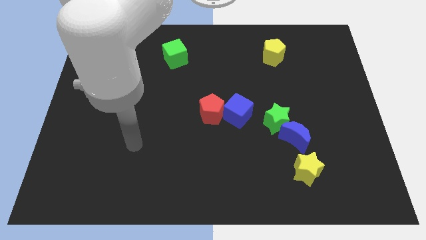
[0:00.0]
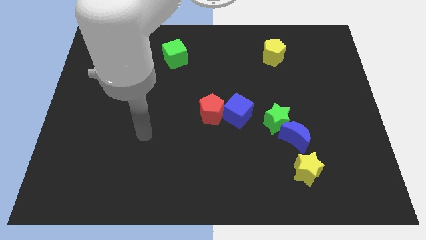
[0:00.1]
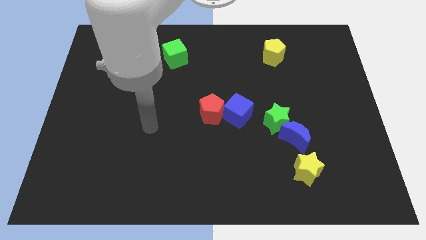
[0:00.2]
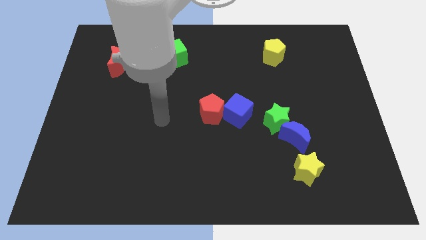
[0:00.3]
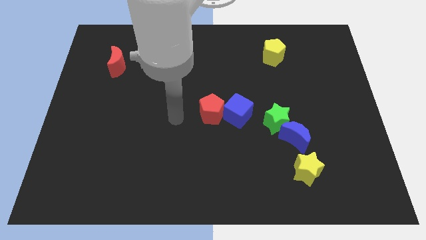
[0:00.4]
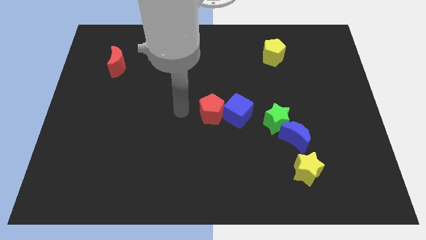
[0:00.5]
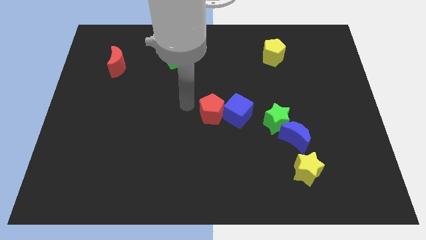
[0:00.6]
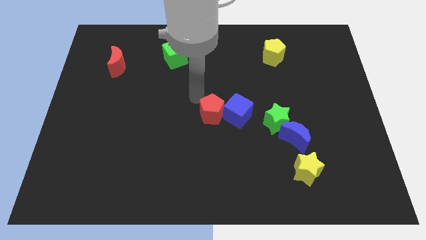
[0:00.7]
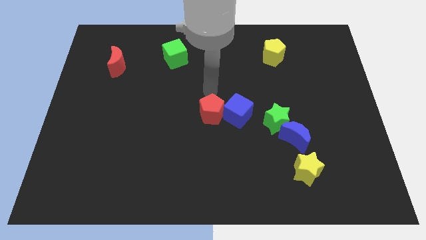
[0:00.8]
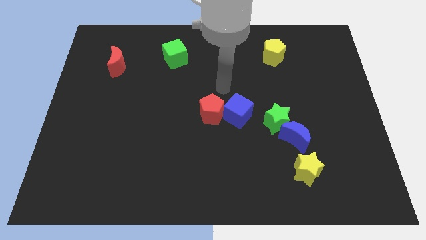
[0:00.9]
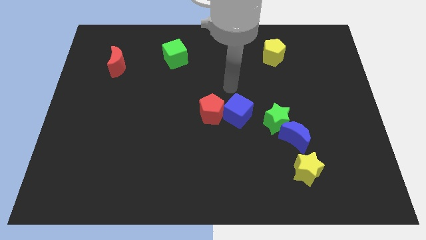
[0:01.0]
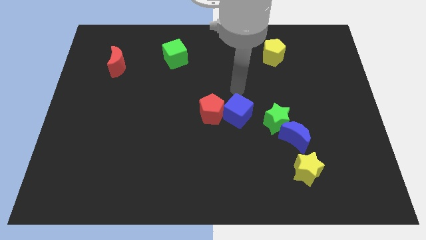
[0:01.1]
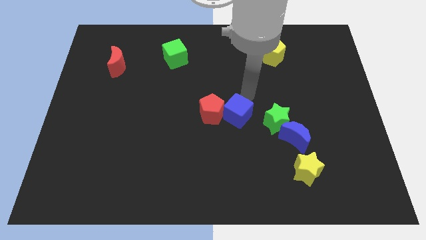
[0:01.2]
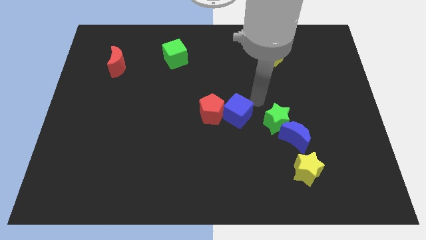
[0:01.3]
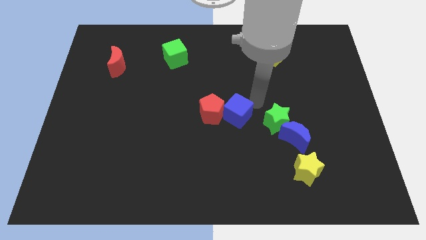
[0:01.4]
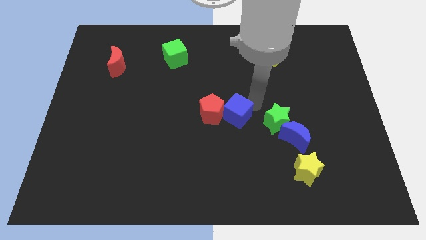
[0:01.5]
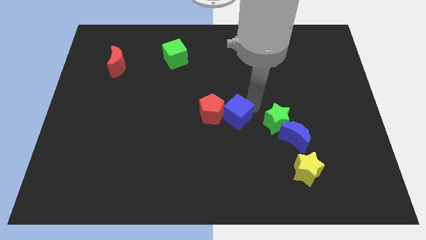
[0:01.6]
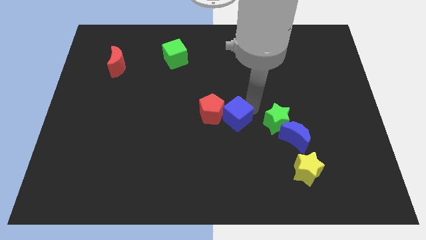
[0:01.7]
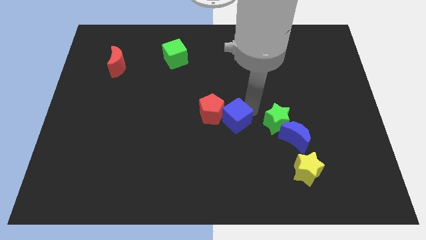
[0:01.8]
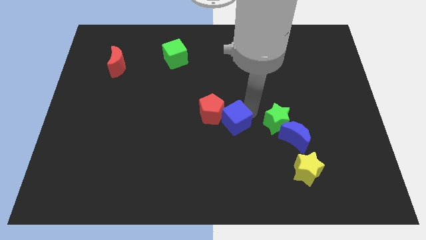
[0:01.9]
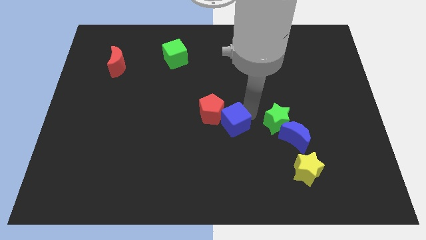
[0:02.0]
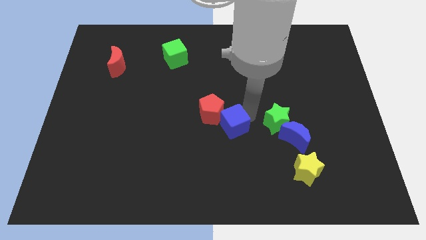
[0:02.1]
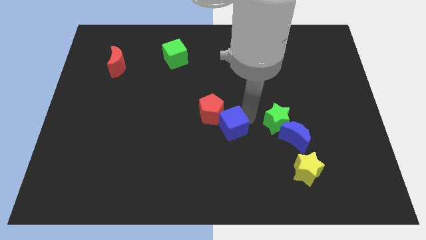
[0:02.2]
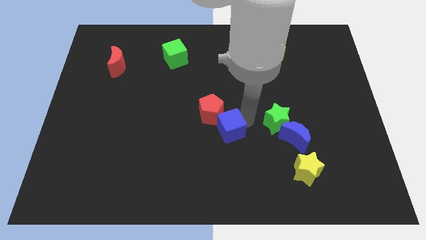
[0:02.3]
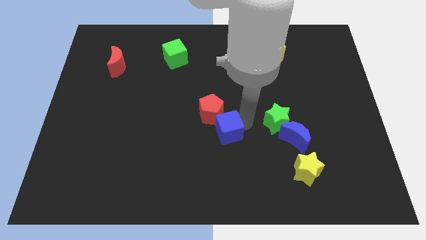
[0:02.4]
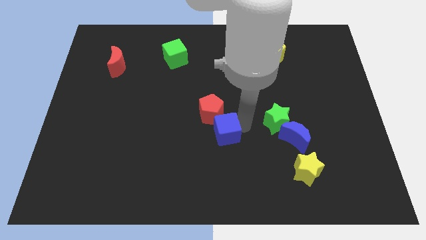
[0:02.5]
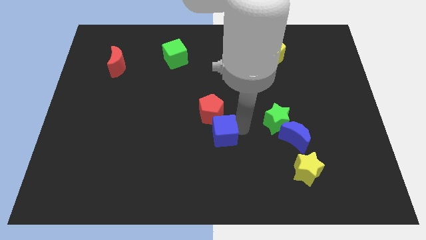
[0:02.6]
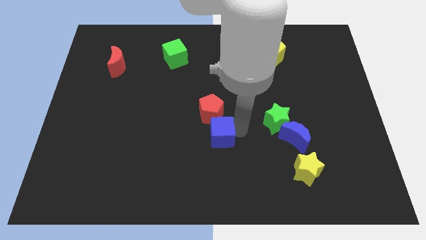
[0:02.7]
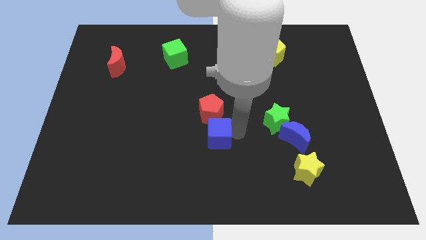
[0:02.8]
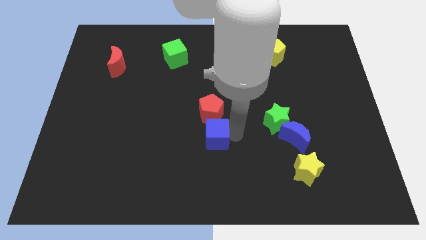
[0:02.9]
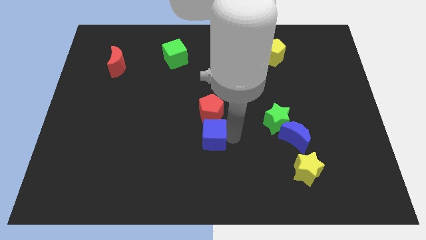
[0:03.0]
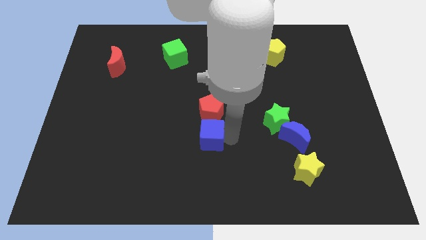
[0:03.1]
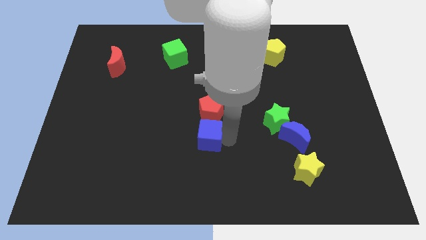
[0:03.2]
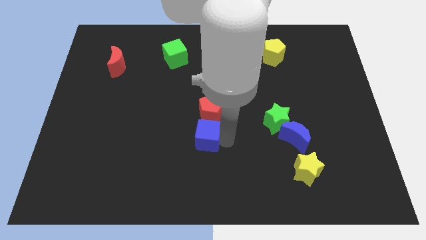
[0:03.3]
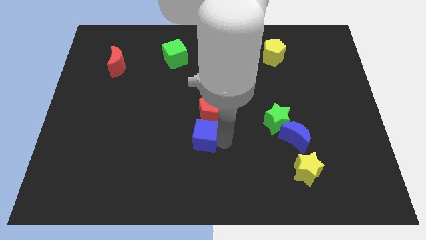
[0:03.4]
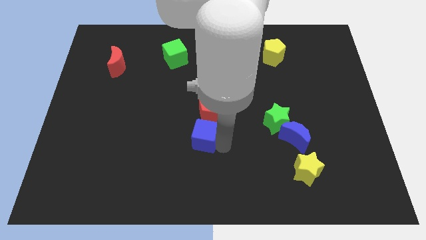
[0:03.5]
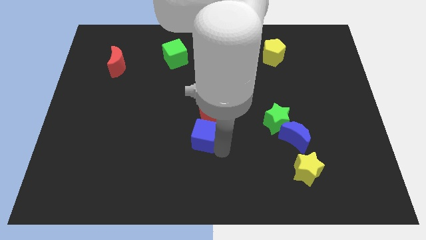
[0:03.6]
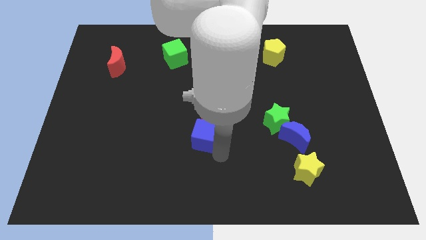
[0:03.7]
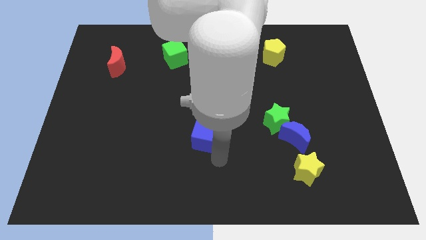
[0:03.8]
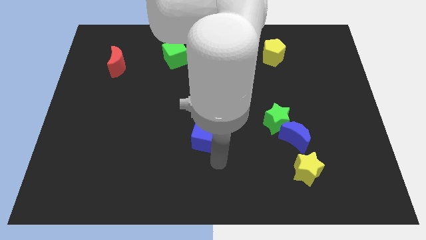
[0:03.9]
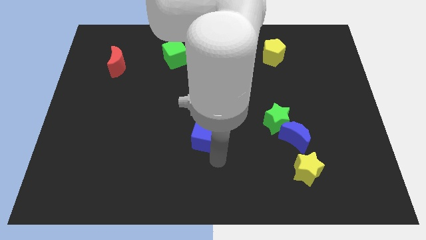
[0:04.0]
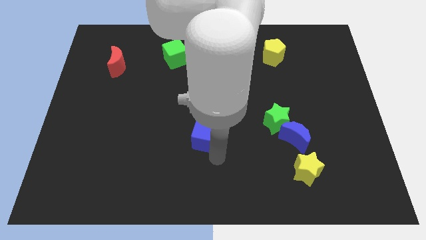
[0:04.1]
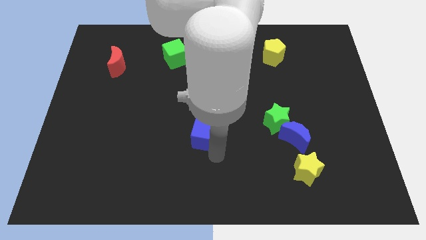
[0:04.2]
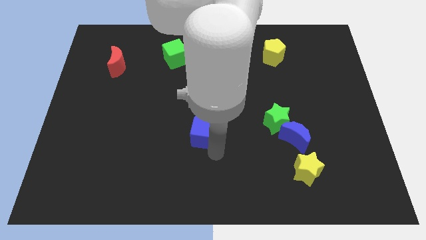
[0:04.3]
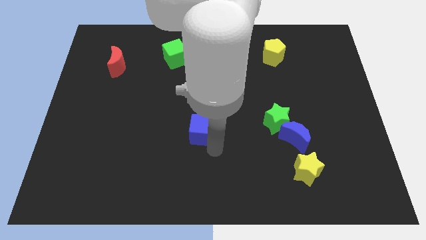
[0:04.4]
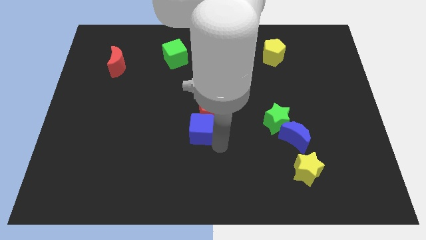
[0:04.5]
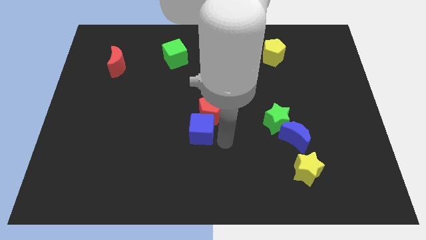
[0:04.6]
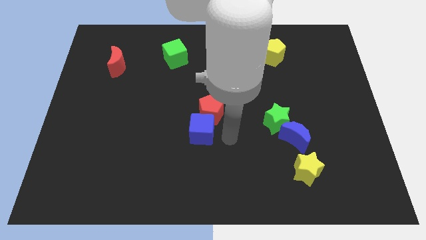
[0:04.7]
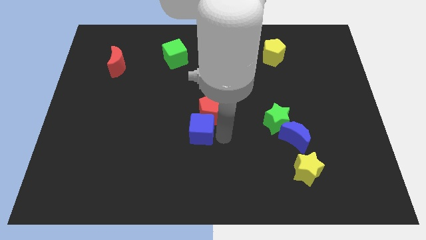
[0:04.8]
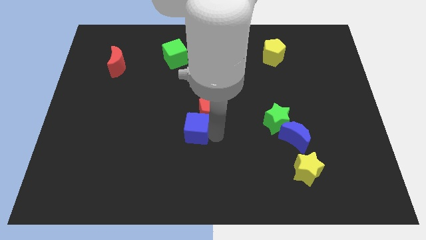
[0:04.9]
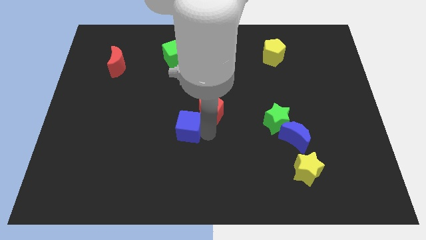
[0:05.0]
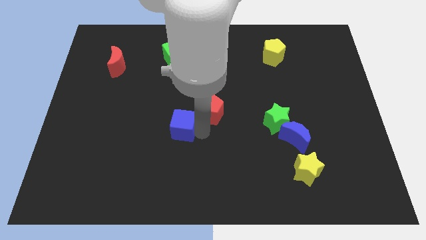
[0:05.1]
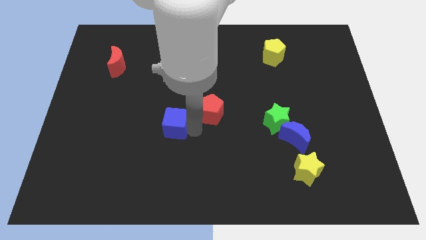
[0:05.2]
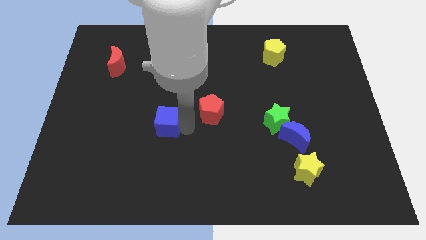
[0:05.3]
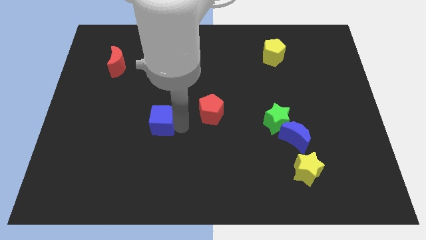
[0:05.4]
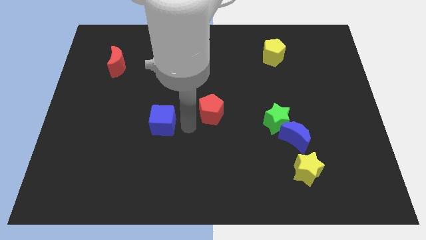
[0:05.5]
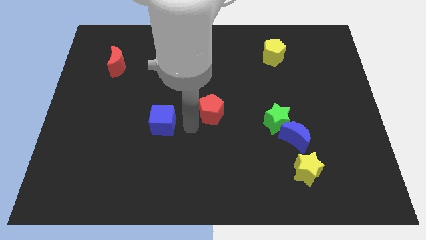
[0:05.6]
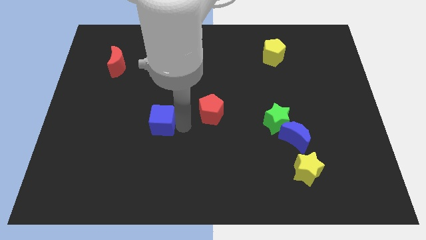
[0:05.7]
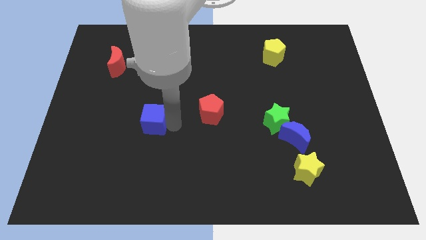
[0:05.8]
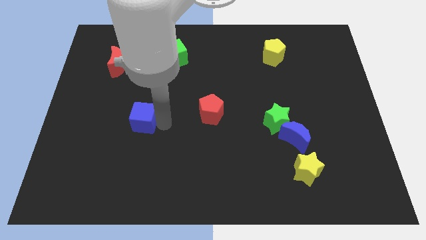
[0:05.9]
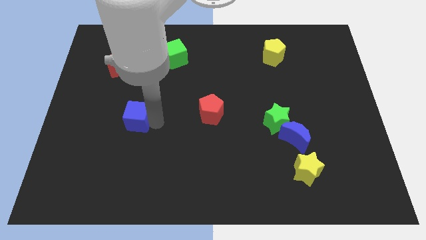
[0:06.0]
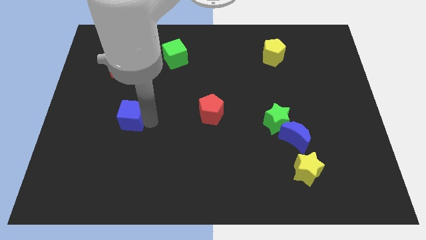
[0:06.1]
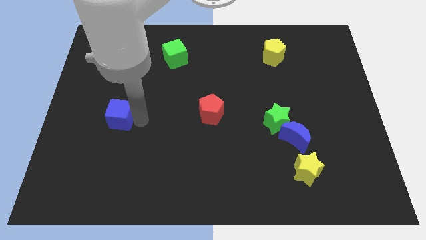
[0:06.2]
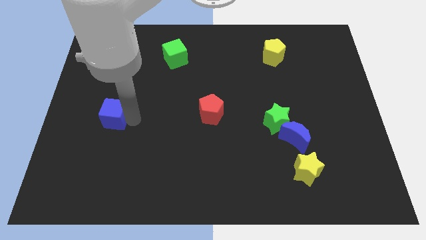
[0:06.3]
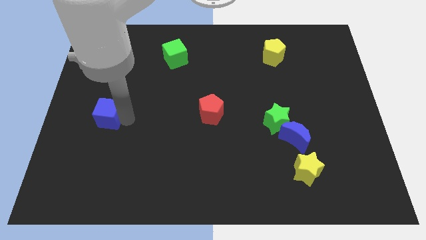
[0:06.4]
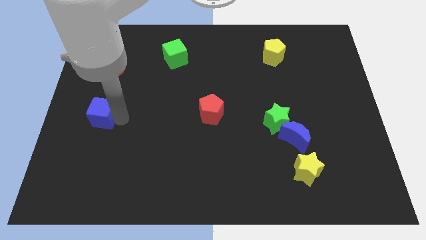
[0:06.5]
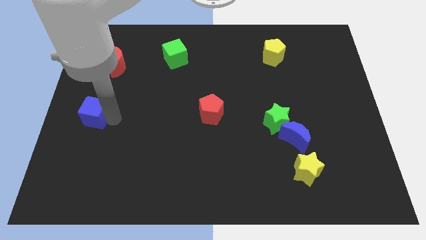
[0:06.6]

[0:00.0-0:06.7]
slide the blue cube to the left side

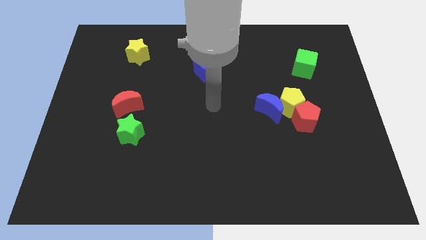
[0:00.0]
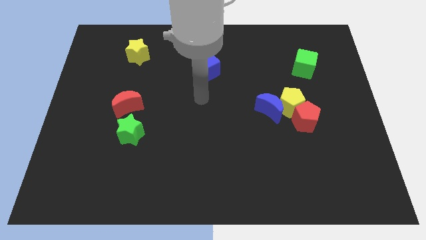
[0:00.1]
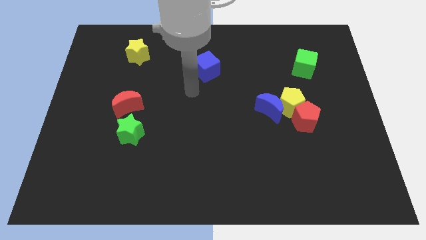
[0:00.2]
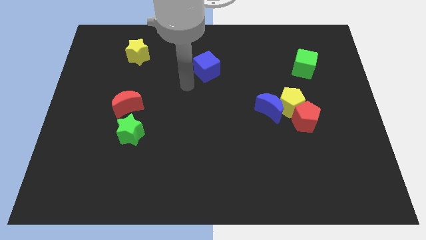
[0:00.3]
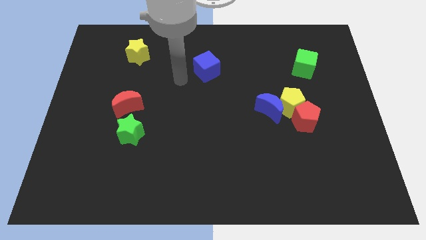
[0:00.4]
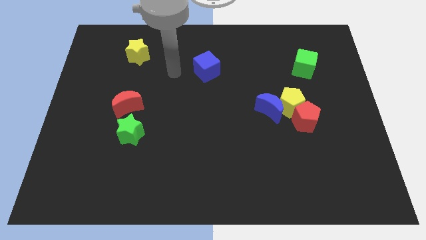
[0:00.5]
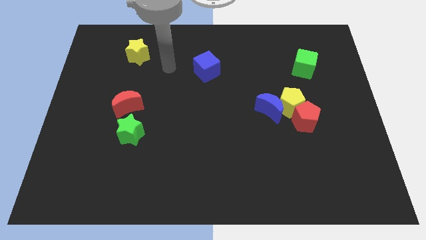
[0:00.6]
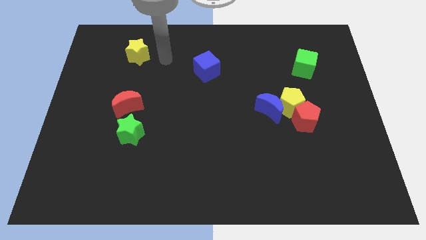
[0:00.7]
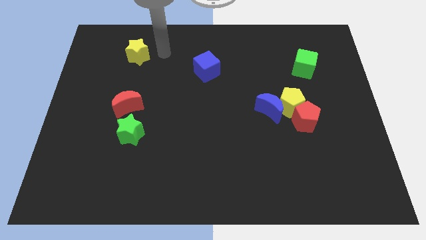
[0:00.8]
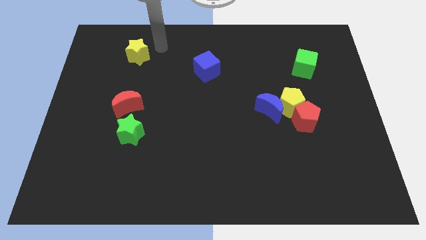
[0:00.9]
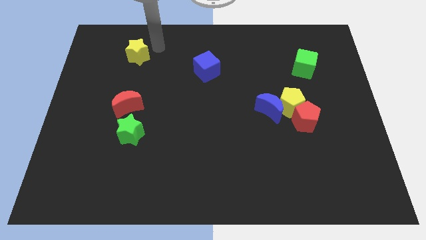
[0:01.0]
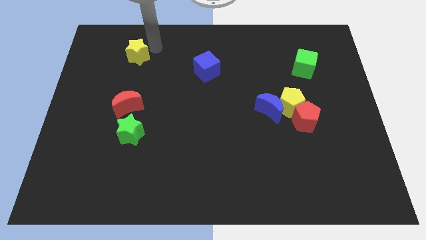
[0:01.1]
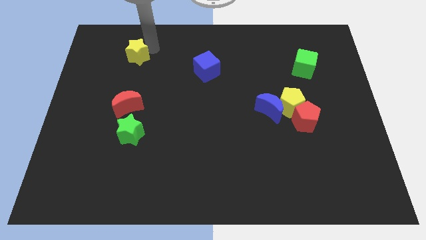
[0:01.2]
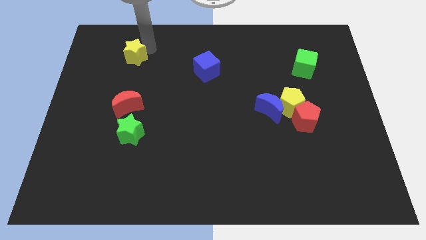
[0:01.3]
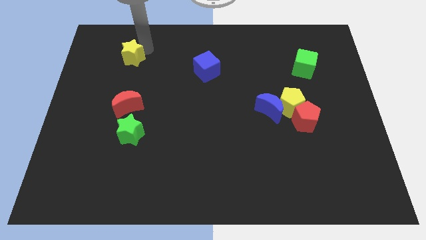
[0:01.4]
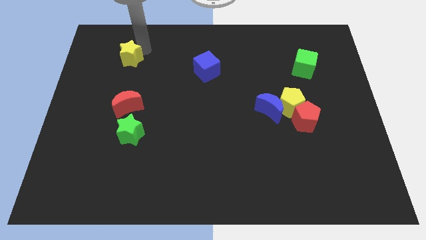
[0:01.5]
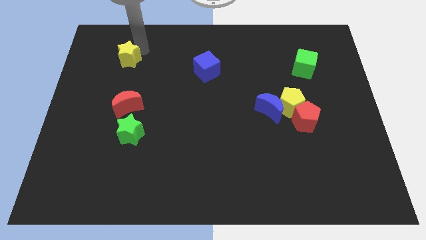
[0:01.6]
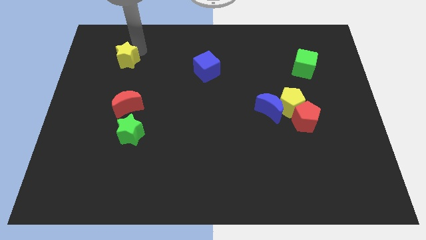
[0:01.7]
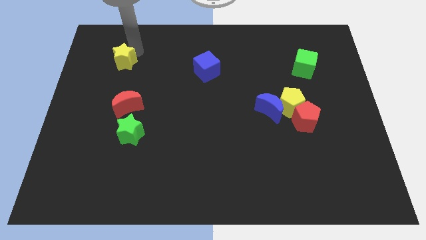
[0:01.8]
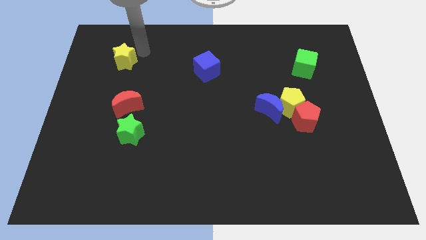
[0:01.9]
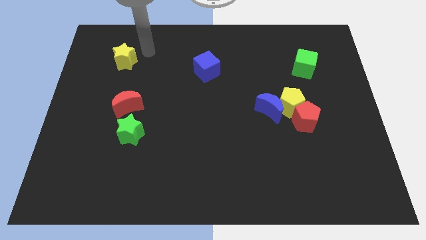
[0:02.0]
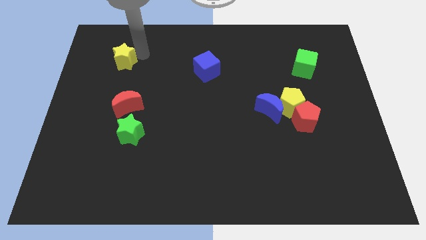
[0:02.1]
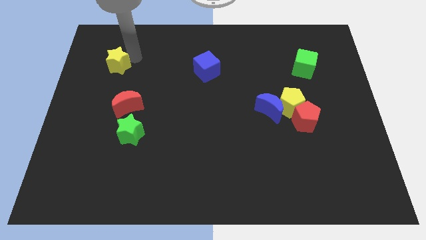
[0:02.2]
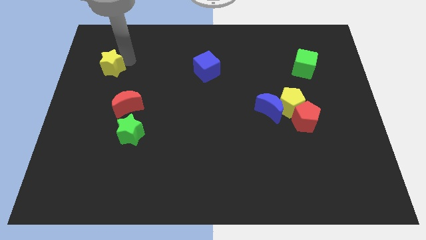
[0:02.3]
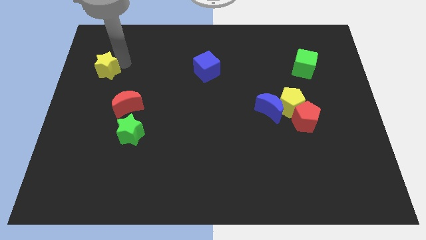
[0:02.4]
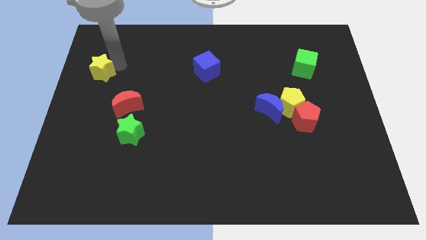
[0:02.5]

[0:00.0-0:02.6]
put the yellow star to the center left
